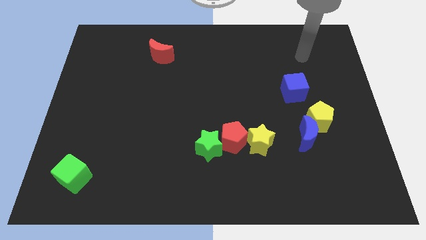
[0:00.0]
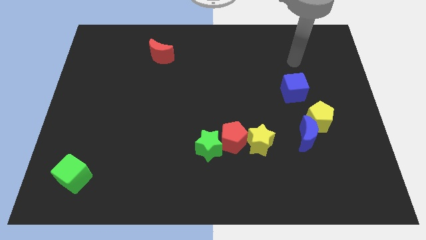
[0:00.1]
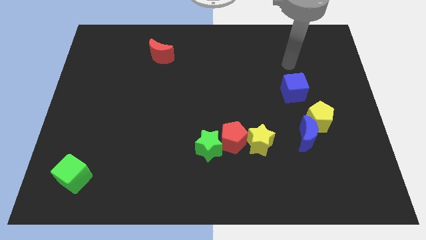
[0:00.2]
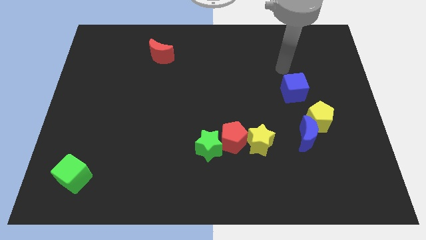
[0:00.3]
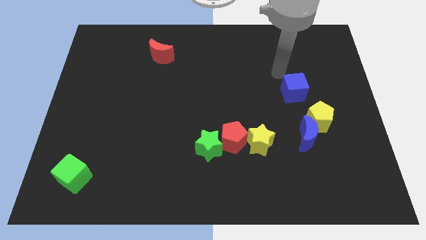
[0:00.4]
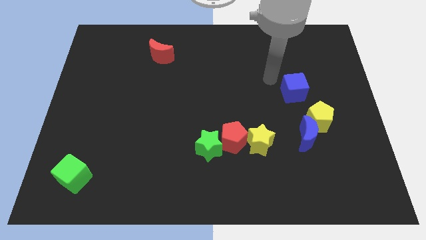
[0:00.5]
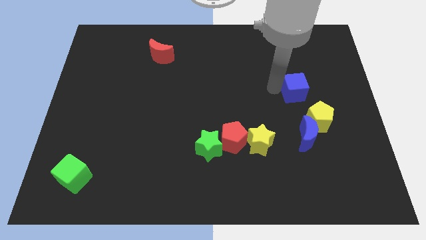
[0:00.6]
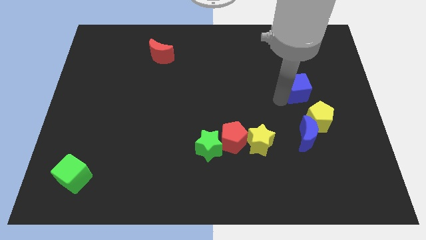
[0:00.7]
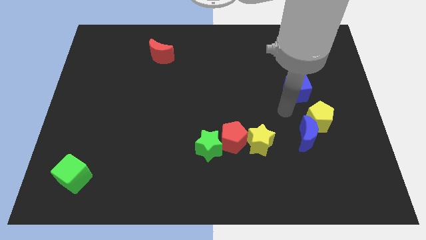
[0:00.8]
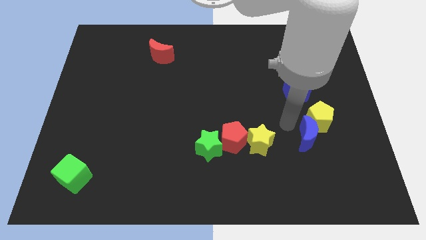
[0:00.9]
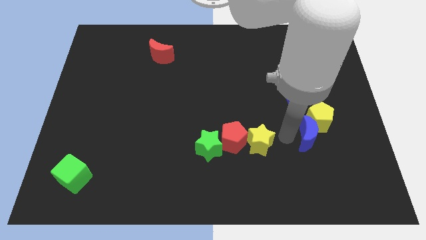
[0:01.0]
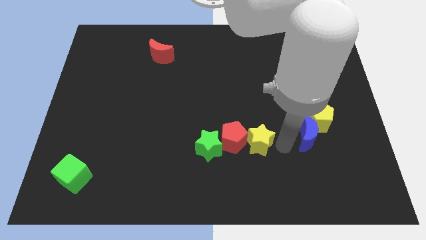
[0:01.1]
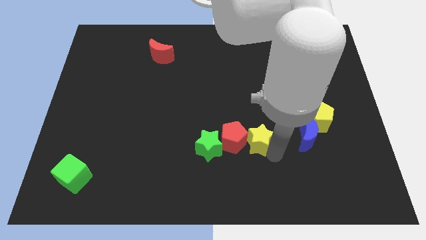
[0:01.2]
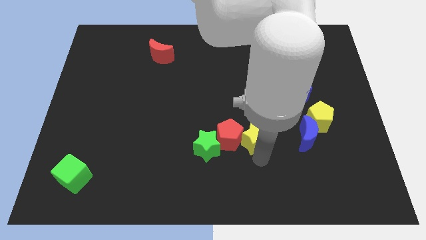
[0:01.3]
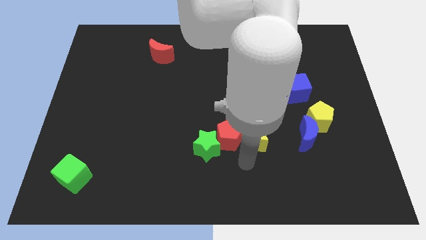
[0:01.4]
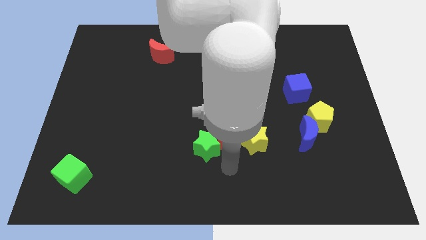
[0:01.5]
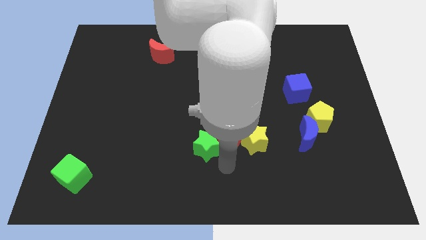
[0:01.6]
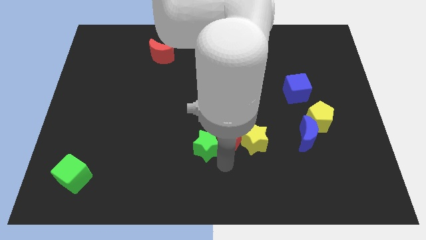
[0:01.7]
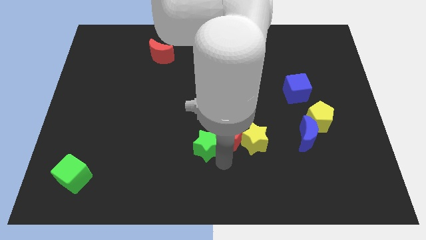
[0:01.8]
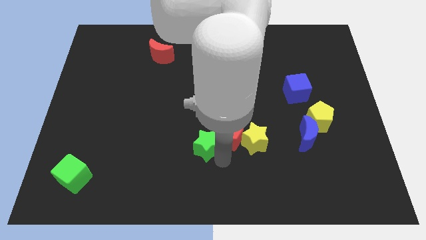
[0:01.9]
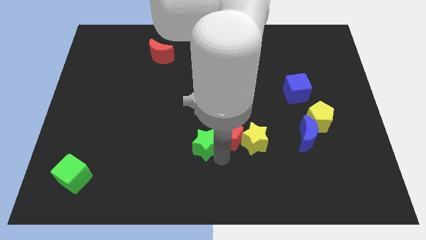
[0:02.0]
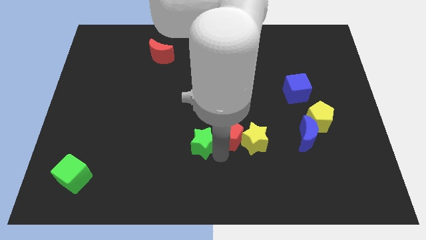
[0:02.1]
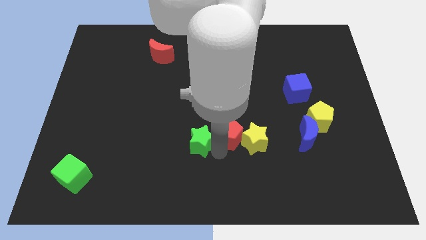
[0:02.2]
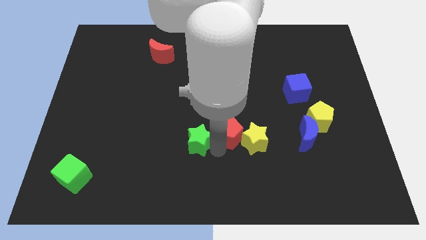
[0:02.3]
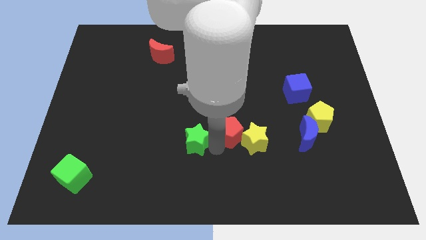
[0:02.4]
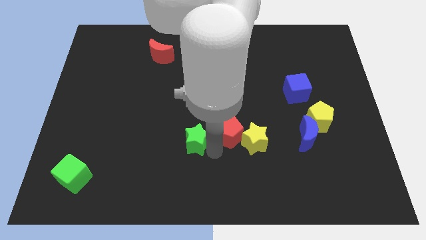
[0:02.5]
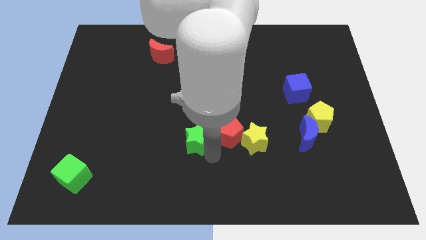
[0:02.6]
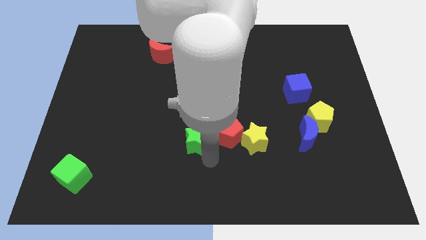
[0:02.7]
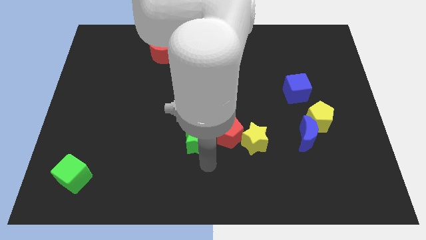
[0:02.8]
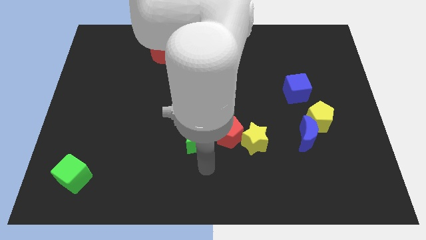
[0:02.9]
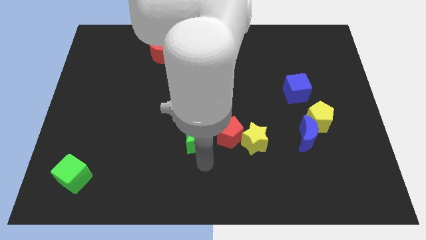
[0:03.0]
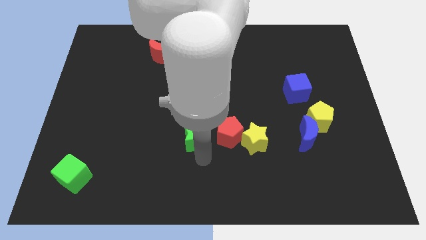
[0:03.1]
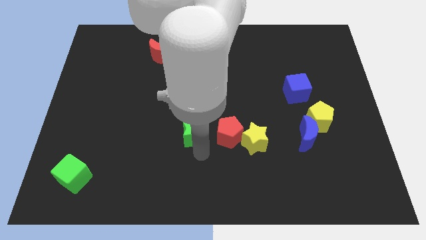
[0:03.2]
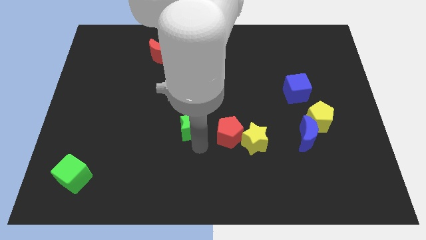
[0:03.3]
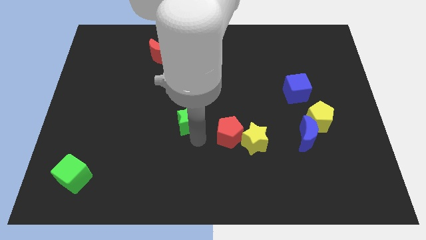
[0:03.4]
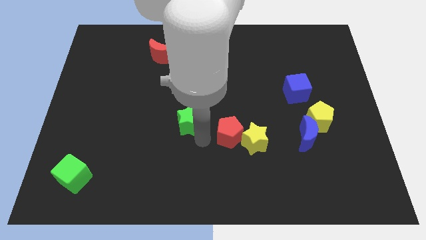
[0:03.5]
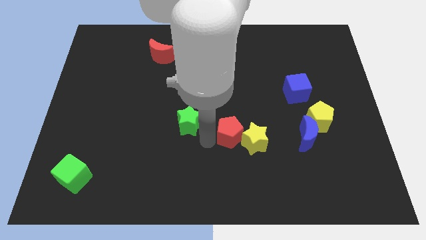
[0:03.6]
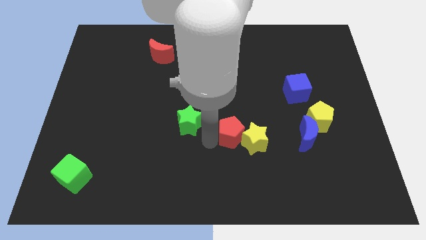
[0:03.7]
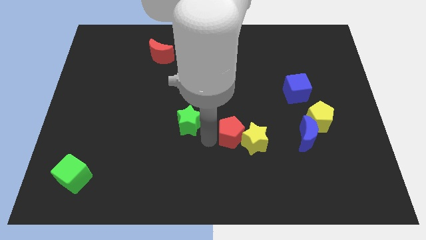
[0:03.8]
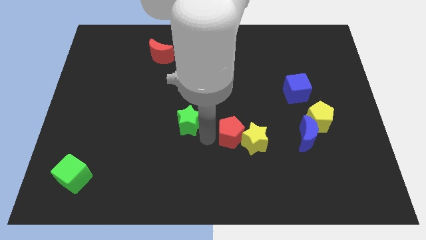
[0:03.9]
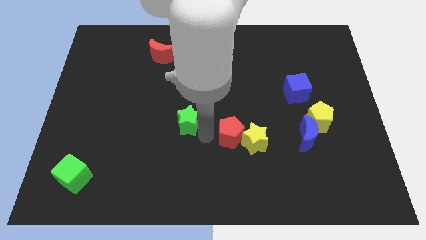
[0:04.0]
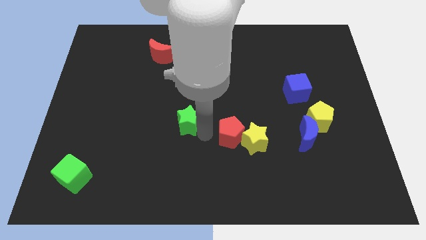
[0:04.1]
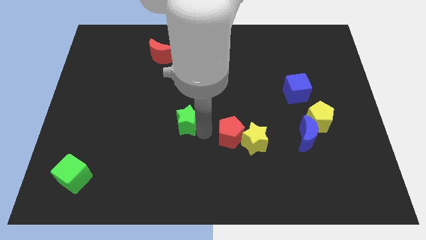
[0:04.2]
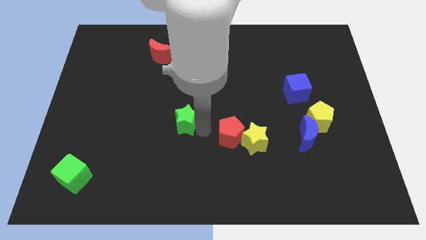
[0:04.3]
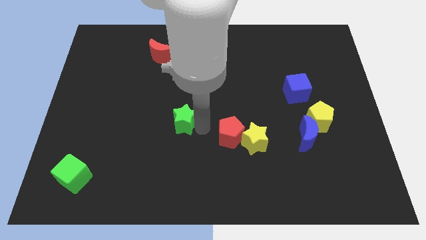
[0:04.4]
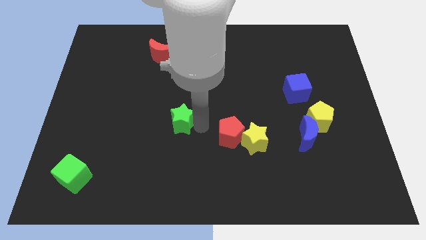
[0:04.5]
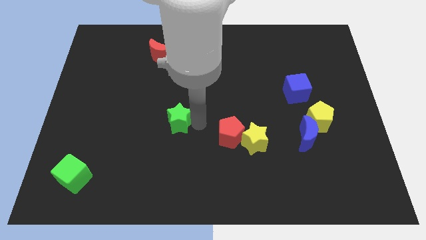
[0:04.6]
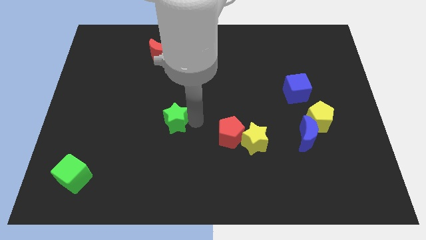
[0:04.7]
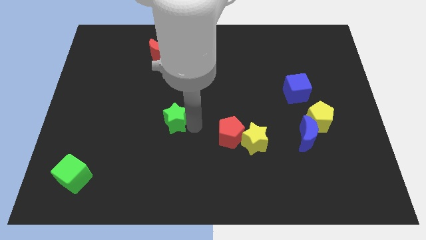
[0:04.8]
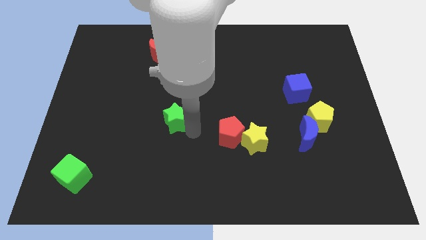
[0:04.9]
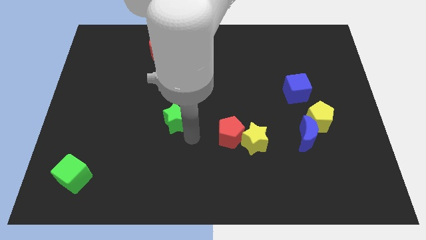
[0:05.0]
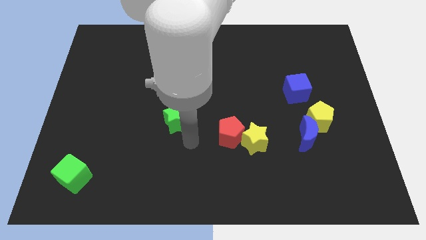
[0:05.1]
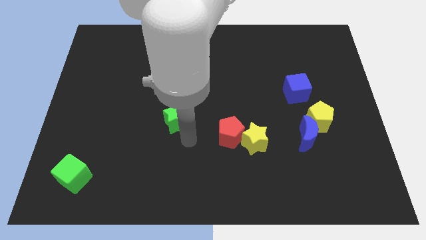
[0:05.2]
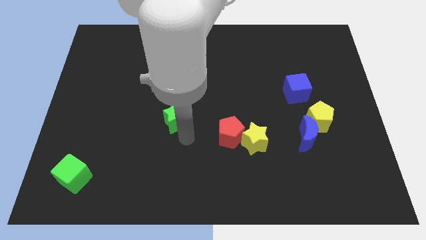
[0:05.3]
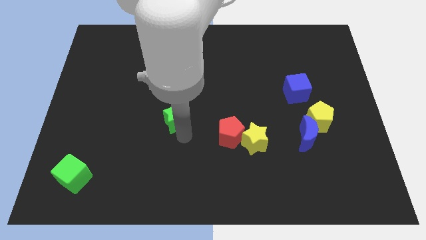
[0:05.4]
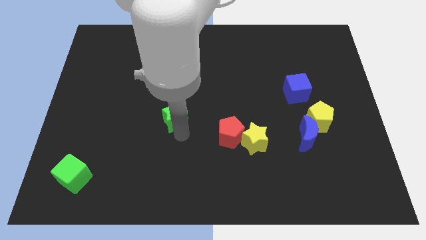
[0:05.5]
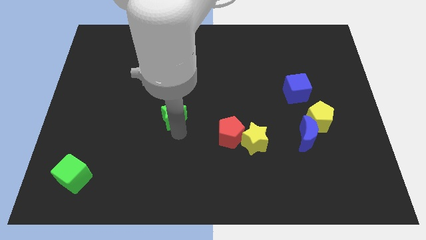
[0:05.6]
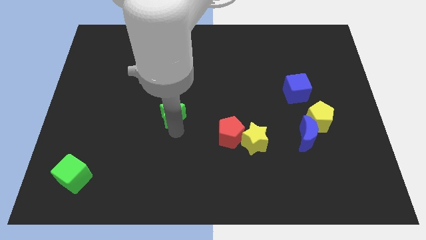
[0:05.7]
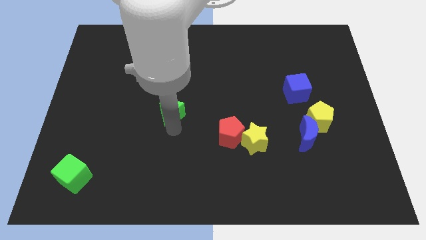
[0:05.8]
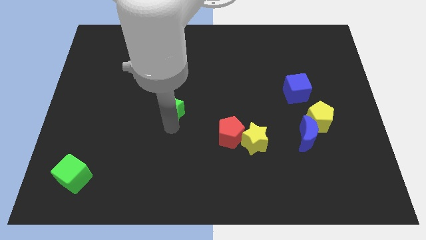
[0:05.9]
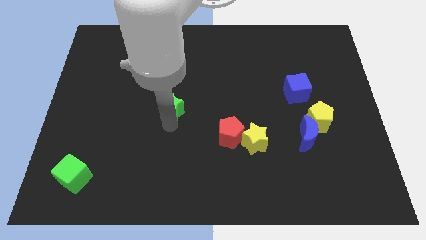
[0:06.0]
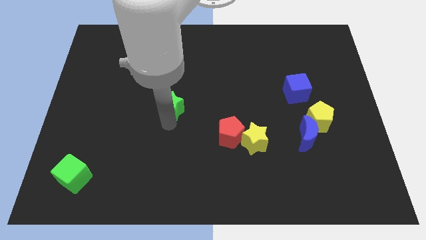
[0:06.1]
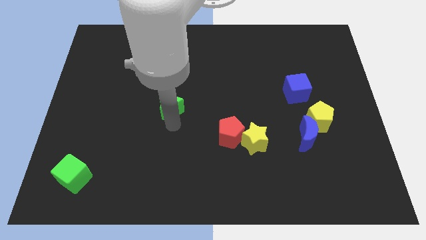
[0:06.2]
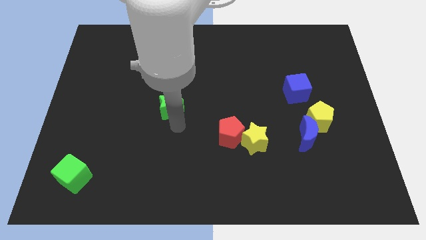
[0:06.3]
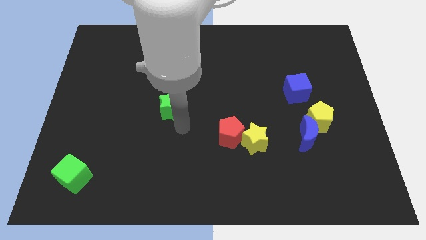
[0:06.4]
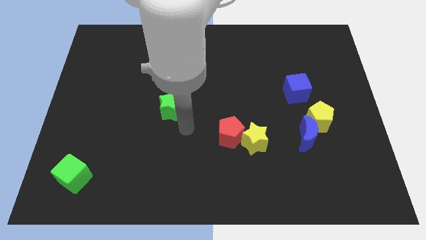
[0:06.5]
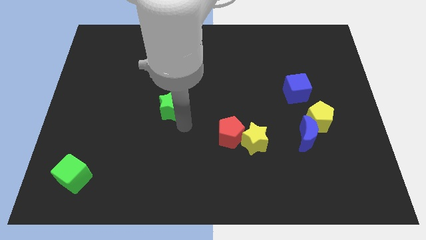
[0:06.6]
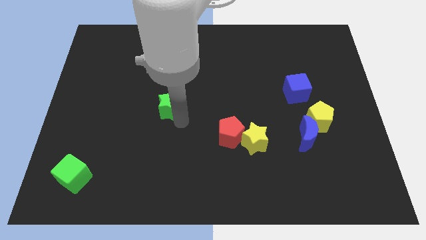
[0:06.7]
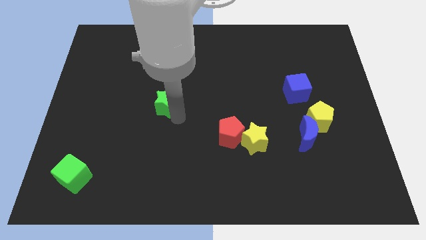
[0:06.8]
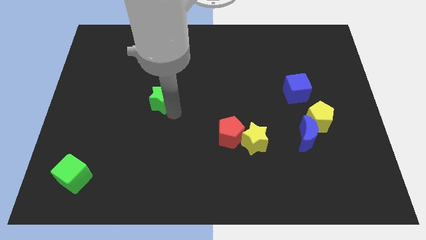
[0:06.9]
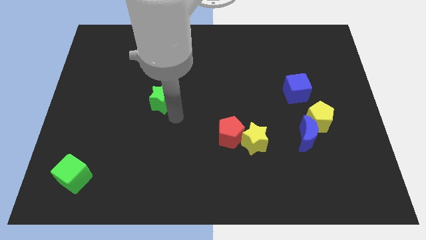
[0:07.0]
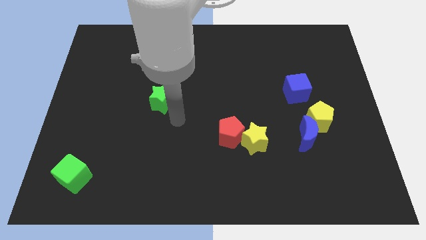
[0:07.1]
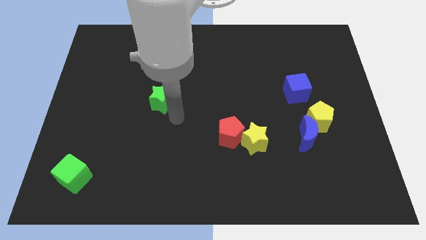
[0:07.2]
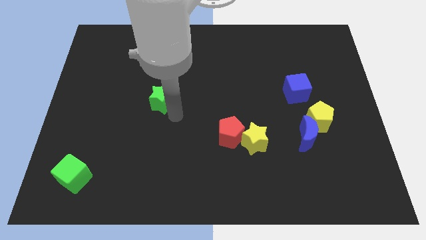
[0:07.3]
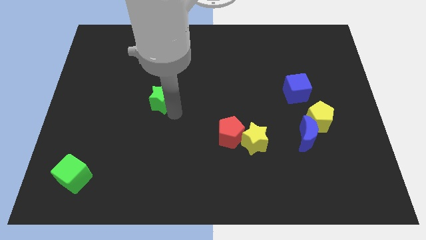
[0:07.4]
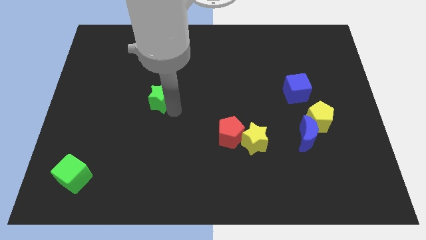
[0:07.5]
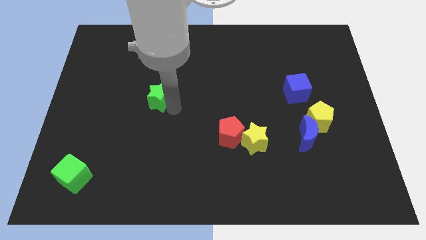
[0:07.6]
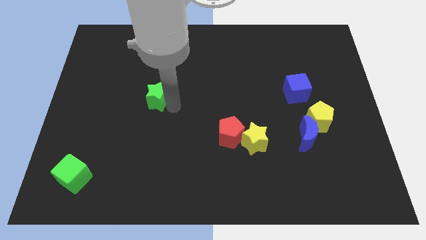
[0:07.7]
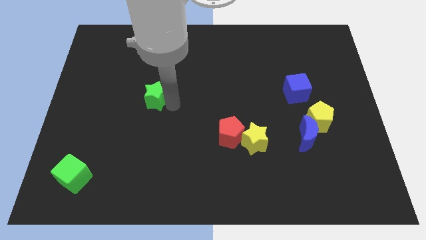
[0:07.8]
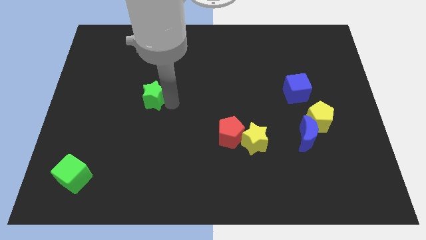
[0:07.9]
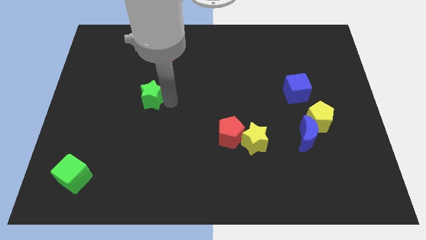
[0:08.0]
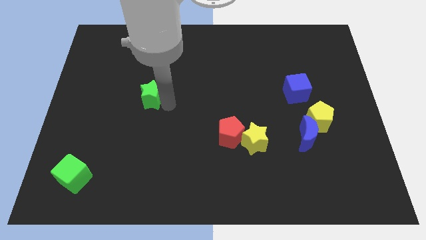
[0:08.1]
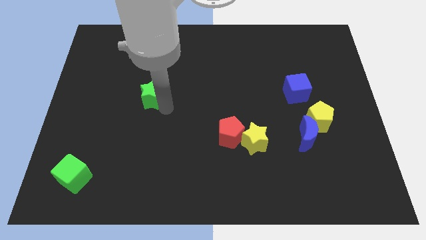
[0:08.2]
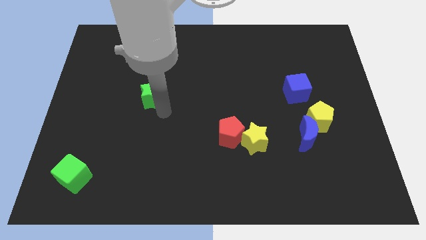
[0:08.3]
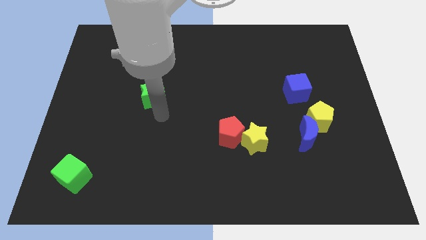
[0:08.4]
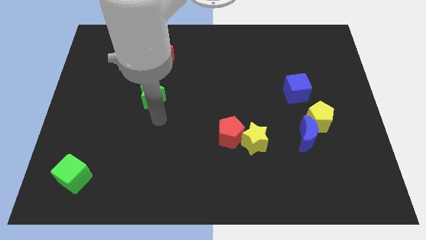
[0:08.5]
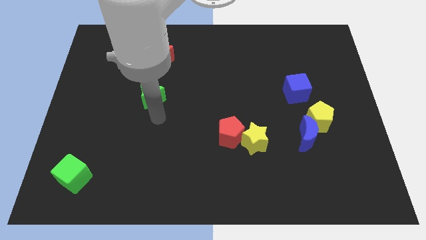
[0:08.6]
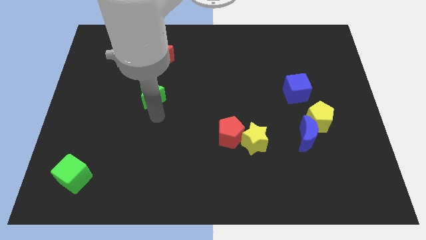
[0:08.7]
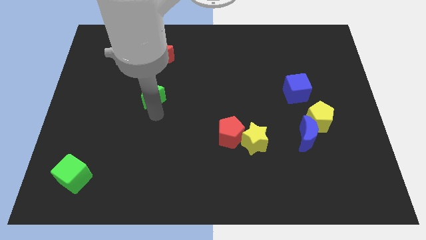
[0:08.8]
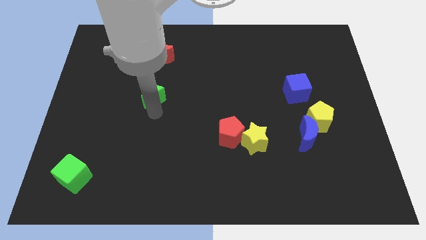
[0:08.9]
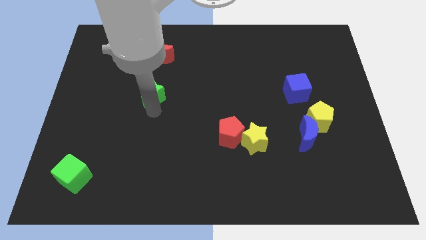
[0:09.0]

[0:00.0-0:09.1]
push the green star up and then to the left

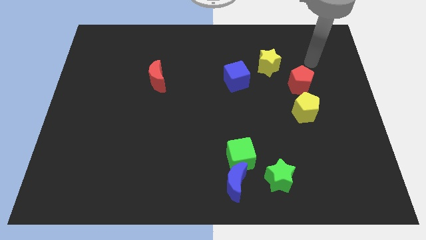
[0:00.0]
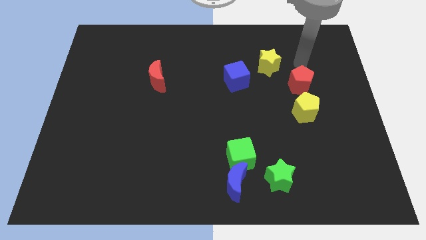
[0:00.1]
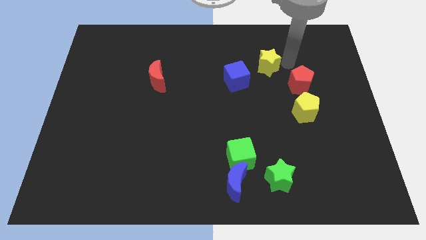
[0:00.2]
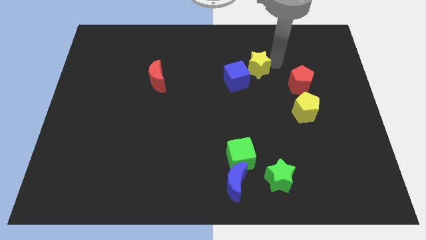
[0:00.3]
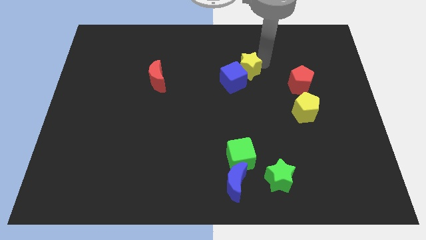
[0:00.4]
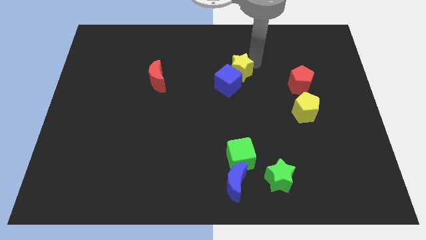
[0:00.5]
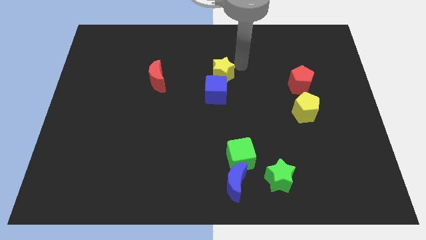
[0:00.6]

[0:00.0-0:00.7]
push the blue cube somewhat diagonally downwards and to the left
